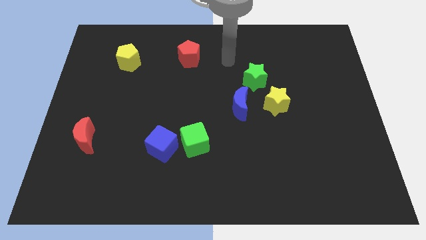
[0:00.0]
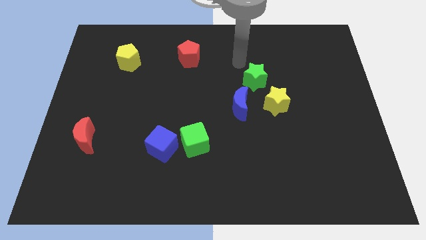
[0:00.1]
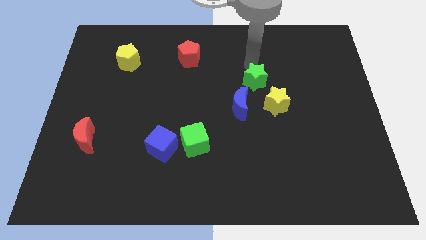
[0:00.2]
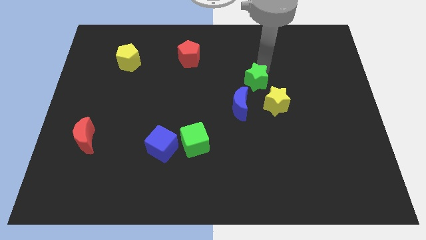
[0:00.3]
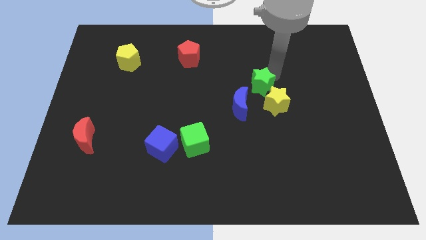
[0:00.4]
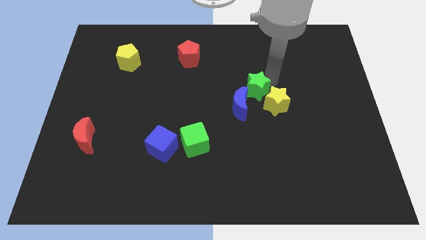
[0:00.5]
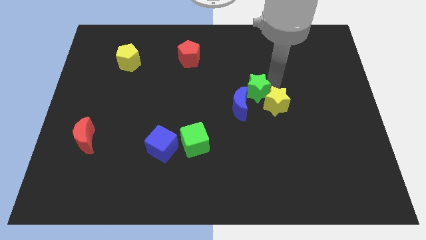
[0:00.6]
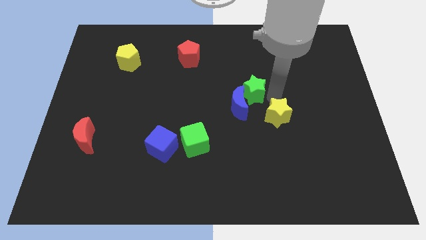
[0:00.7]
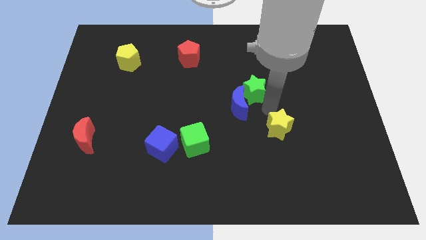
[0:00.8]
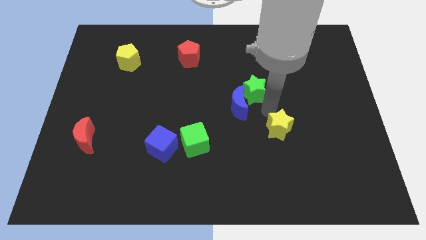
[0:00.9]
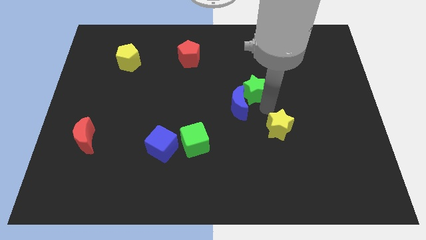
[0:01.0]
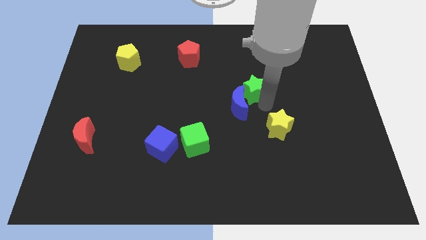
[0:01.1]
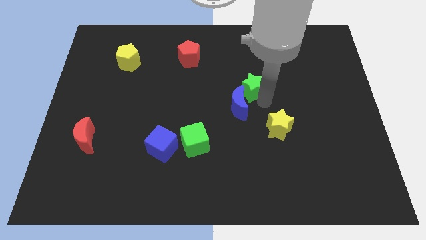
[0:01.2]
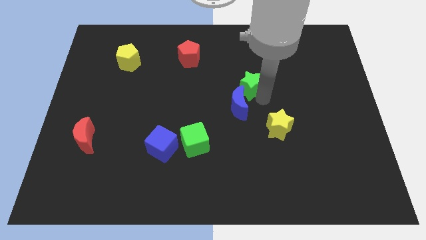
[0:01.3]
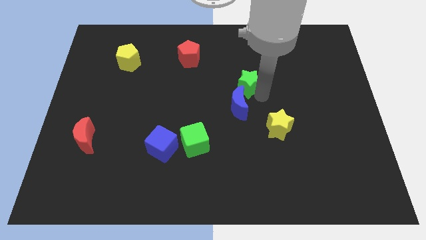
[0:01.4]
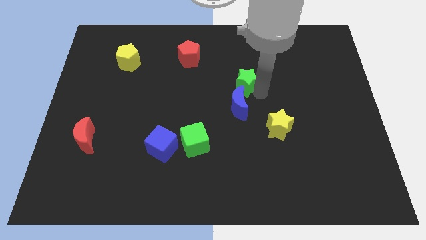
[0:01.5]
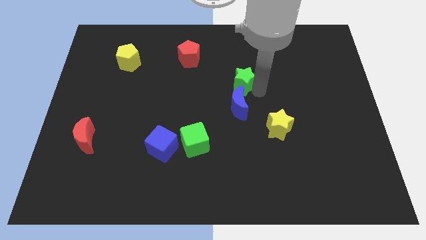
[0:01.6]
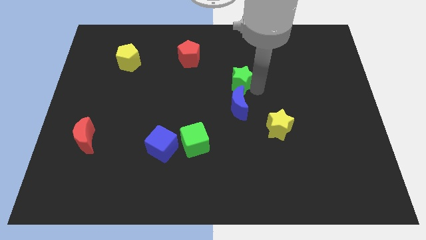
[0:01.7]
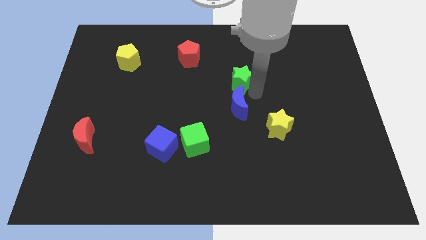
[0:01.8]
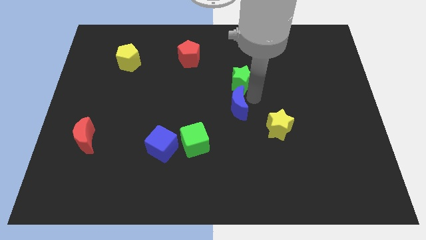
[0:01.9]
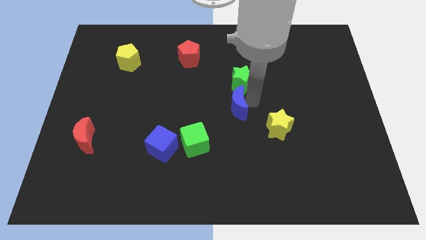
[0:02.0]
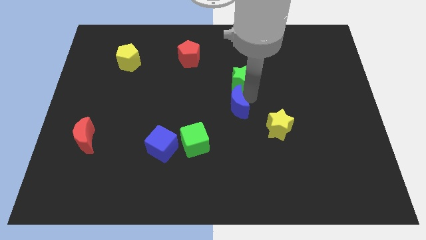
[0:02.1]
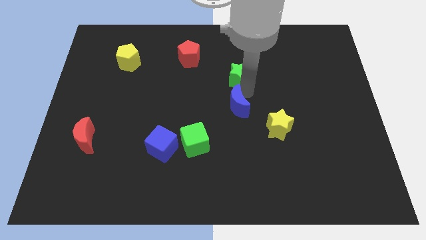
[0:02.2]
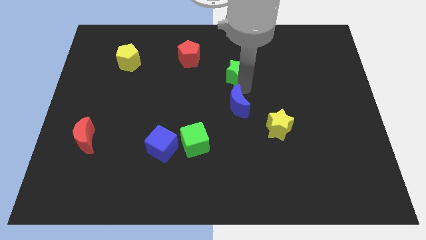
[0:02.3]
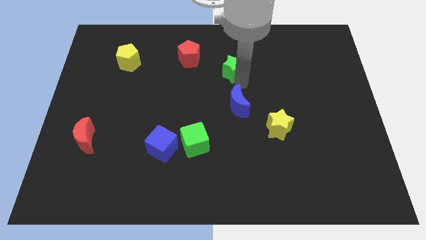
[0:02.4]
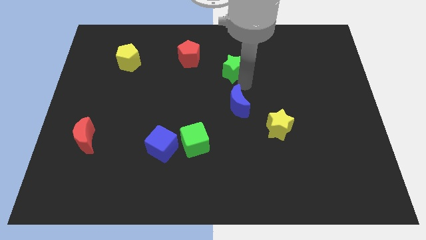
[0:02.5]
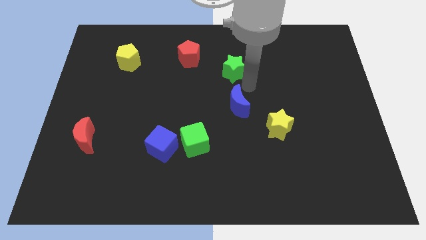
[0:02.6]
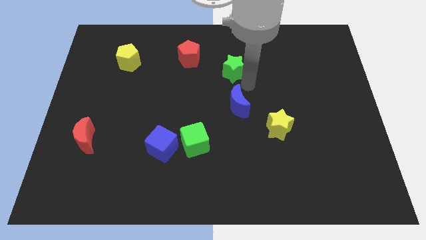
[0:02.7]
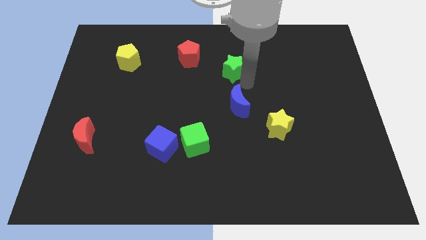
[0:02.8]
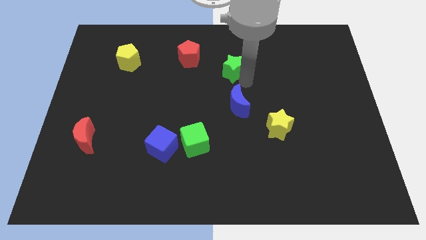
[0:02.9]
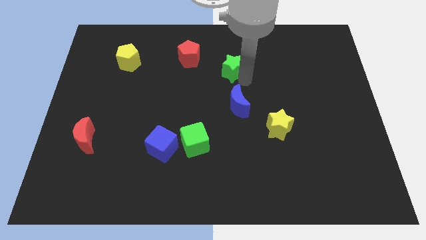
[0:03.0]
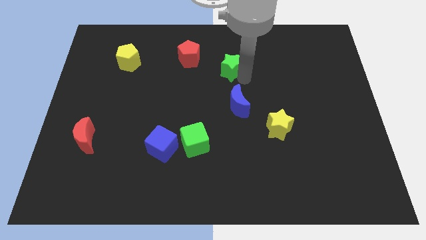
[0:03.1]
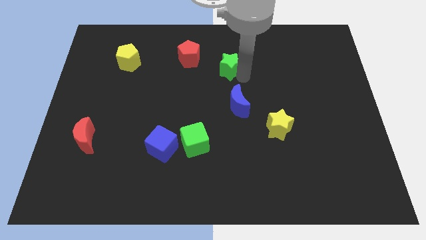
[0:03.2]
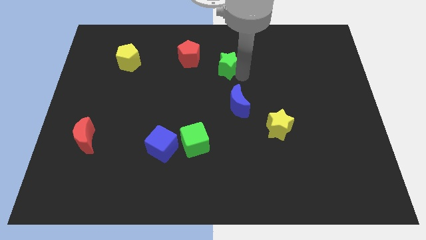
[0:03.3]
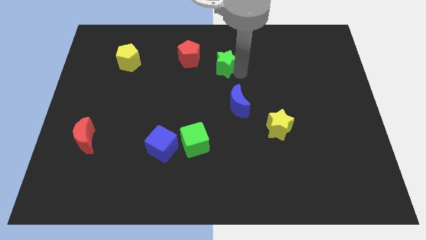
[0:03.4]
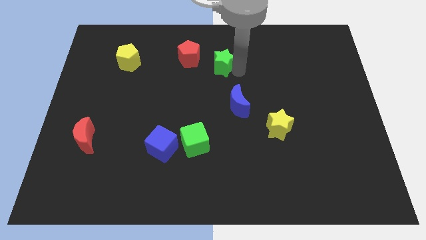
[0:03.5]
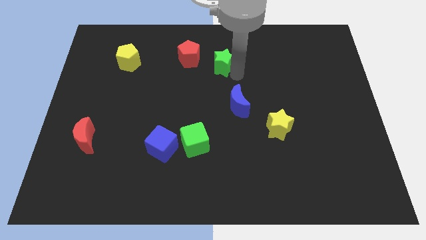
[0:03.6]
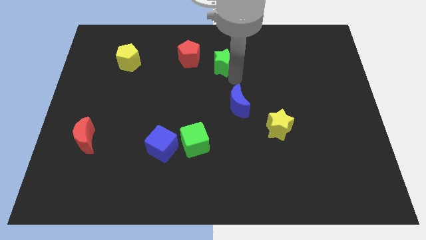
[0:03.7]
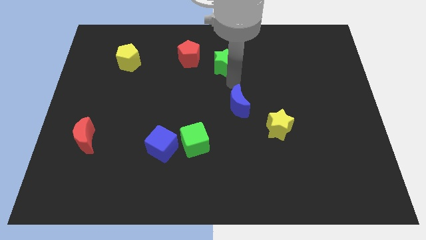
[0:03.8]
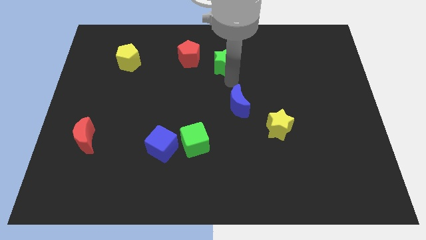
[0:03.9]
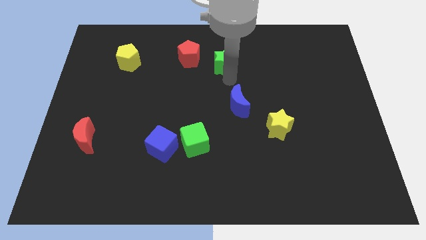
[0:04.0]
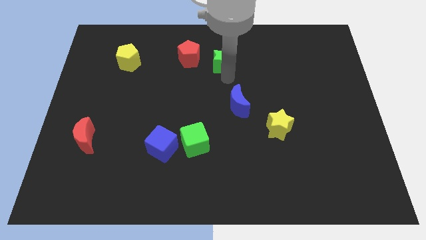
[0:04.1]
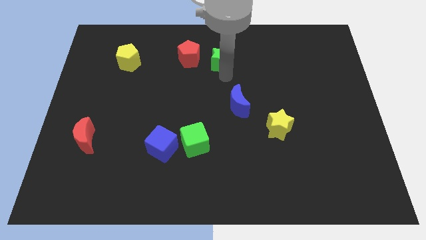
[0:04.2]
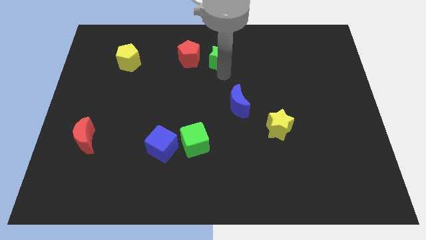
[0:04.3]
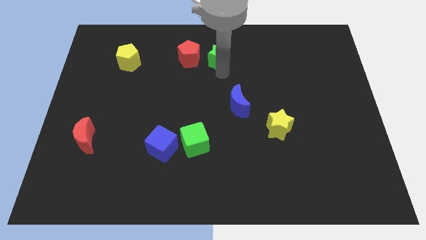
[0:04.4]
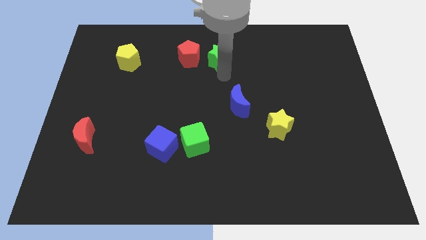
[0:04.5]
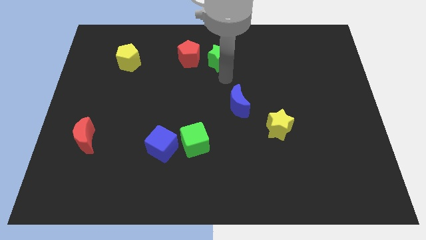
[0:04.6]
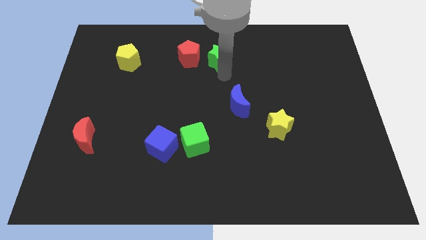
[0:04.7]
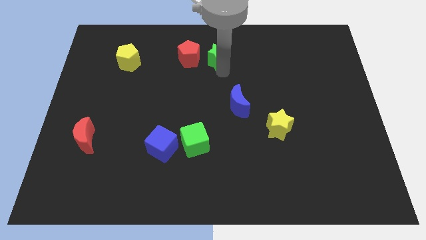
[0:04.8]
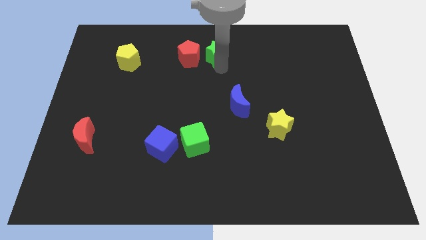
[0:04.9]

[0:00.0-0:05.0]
move the green star to the top

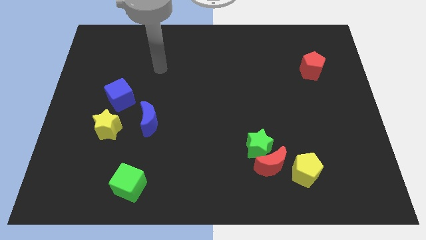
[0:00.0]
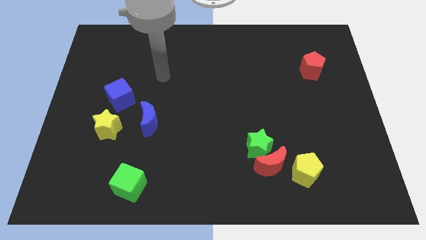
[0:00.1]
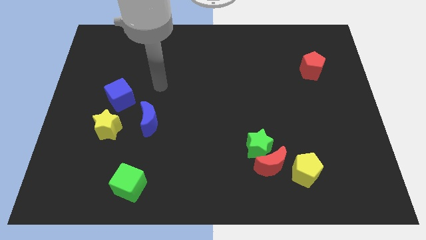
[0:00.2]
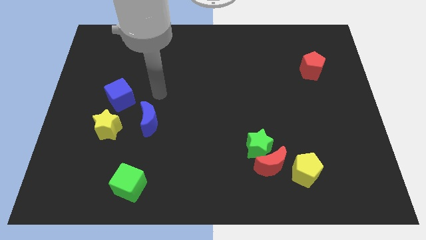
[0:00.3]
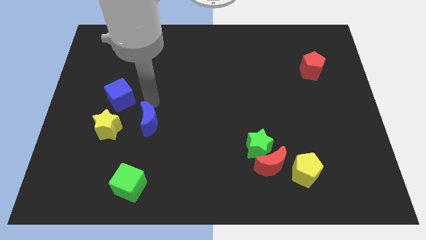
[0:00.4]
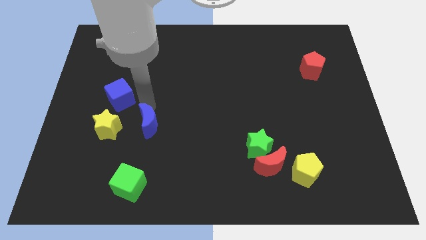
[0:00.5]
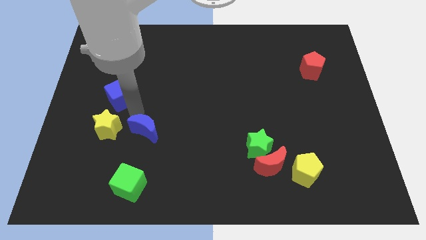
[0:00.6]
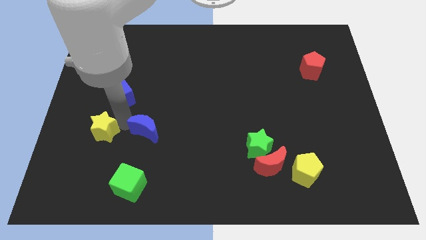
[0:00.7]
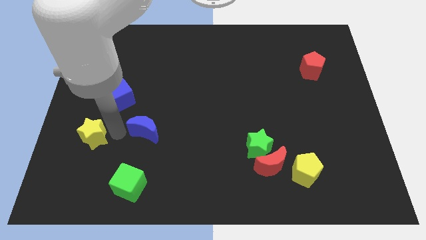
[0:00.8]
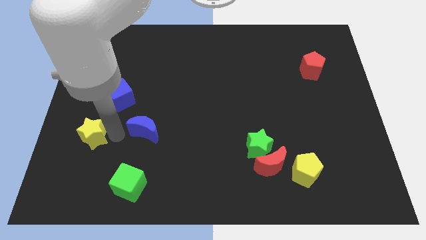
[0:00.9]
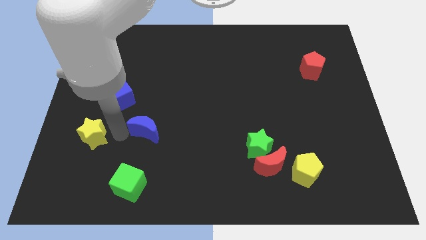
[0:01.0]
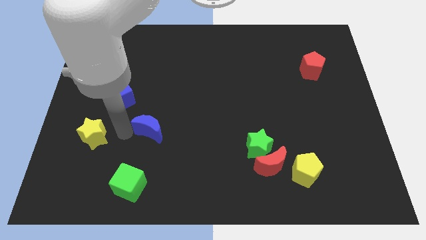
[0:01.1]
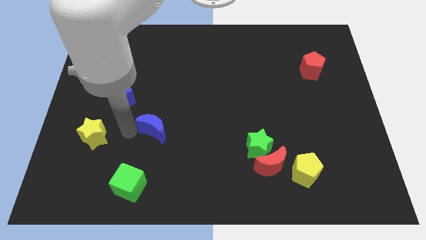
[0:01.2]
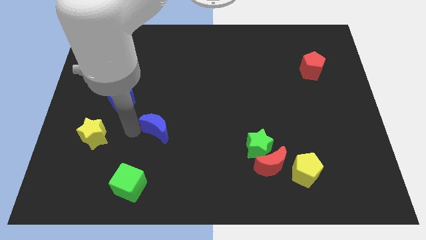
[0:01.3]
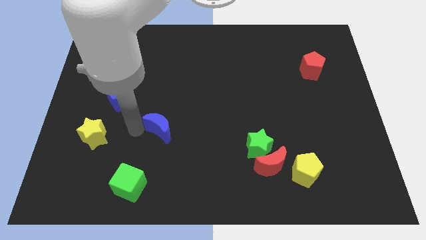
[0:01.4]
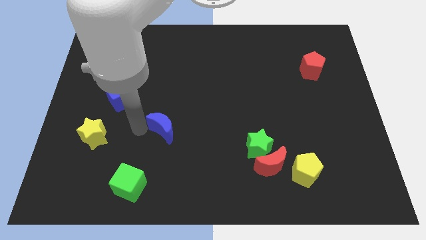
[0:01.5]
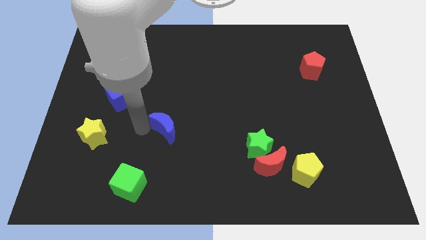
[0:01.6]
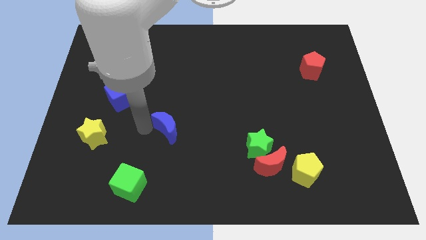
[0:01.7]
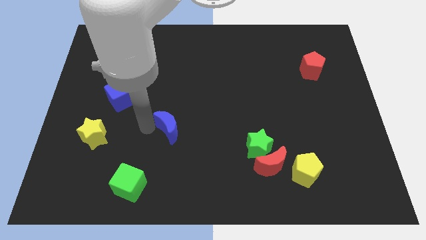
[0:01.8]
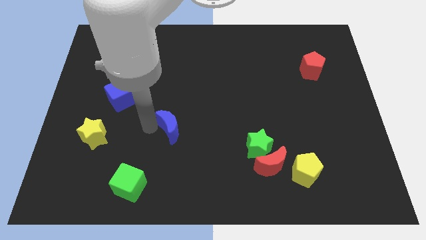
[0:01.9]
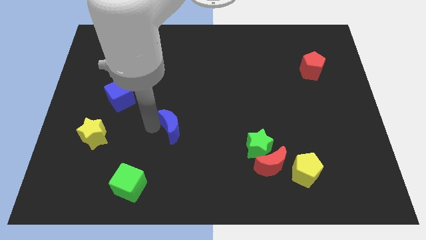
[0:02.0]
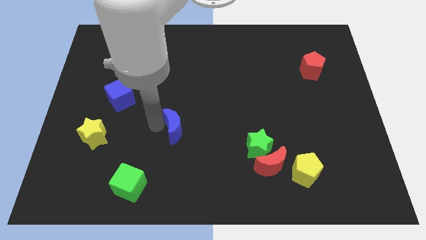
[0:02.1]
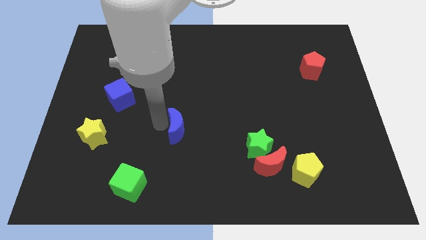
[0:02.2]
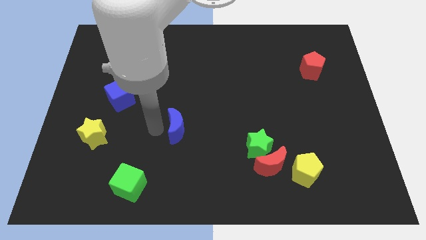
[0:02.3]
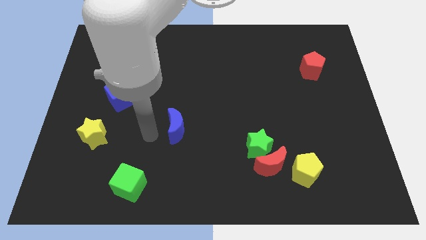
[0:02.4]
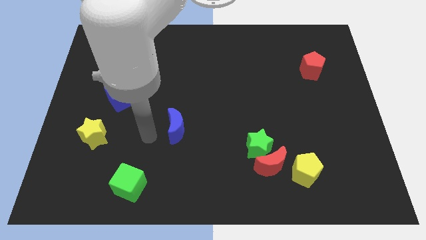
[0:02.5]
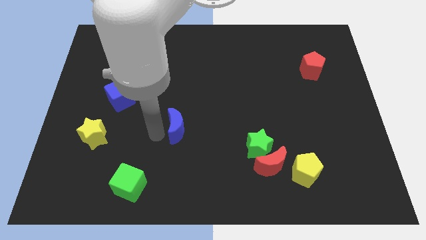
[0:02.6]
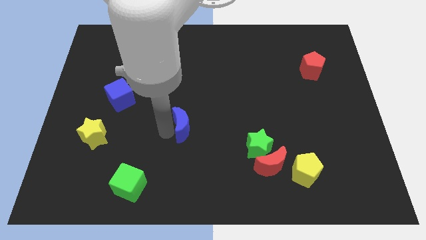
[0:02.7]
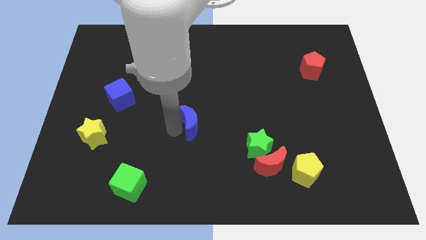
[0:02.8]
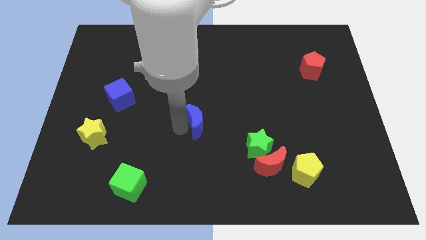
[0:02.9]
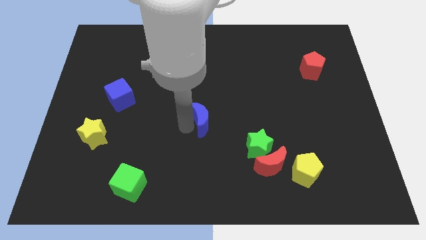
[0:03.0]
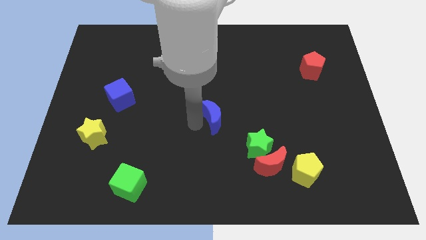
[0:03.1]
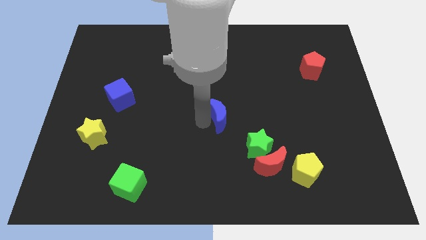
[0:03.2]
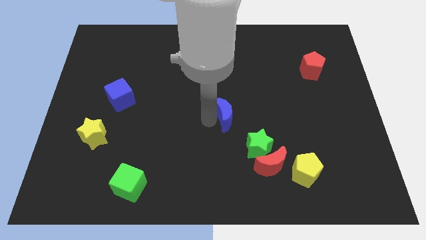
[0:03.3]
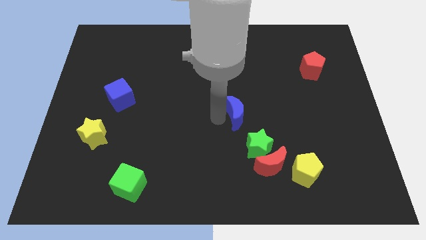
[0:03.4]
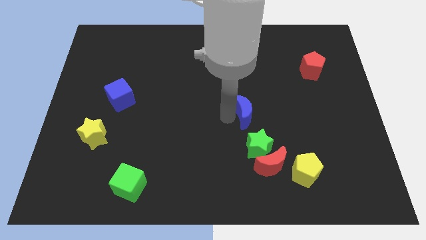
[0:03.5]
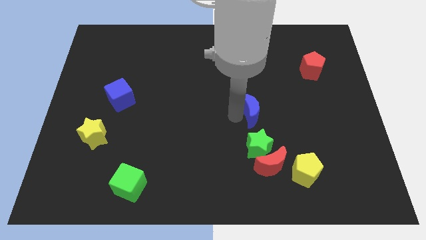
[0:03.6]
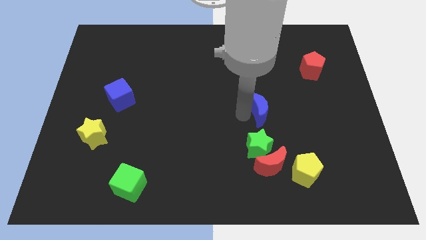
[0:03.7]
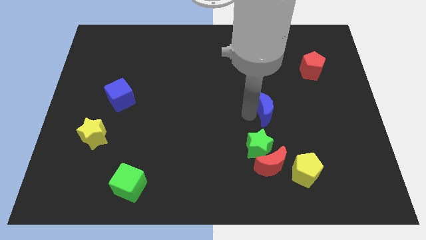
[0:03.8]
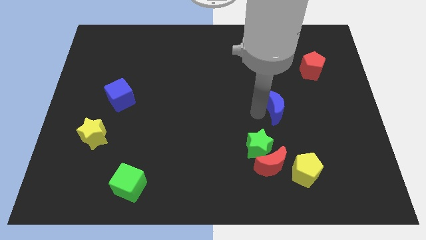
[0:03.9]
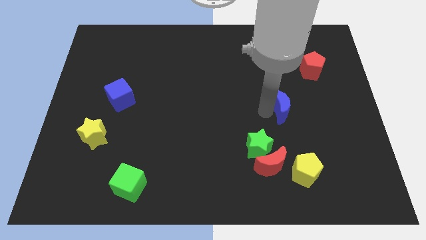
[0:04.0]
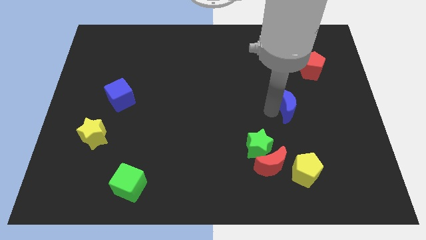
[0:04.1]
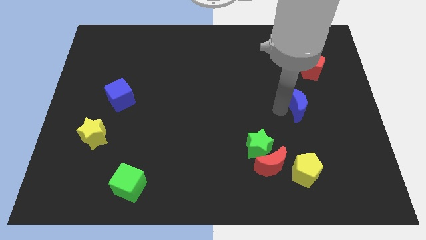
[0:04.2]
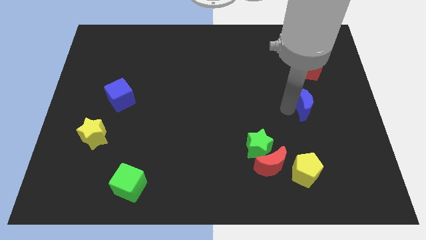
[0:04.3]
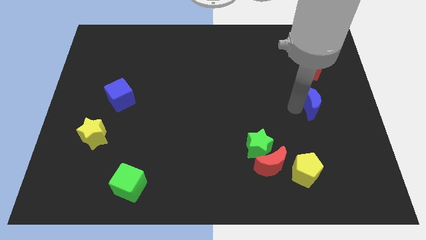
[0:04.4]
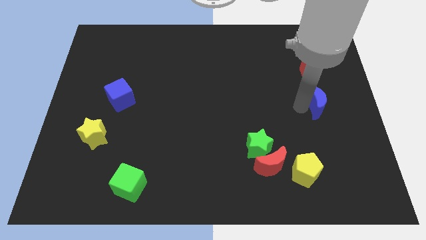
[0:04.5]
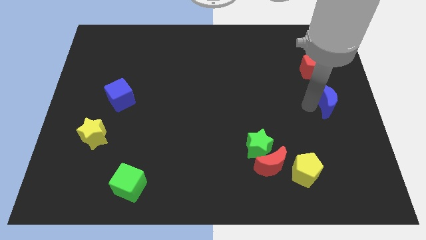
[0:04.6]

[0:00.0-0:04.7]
move the blue moon to the center right
